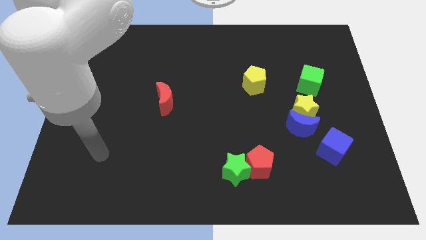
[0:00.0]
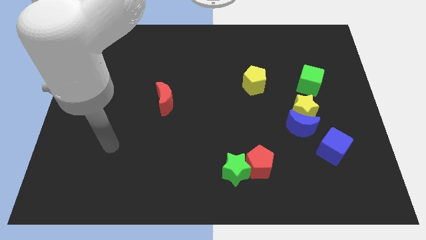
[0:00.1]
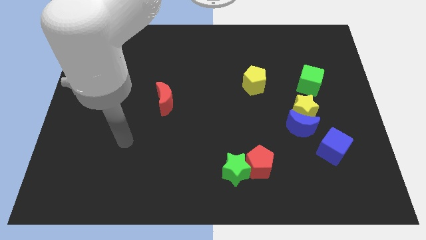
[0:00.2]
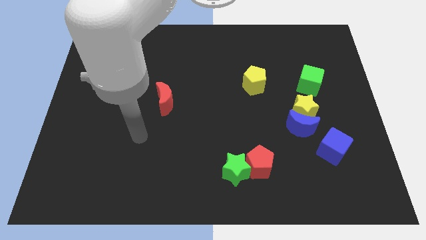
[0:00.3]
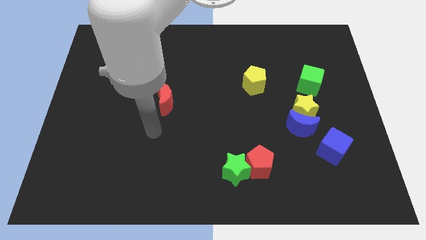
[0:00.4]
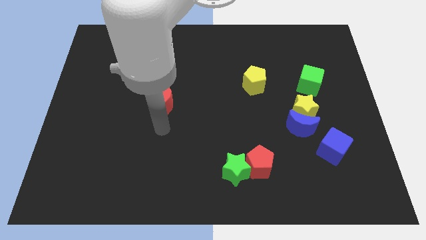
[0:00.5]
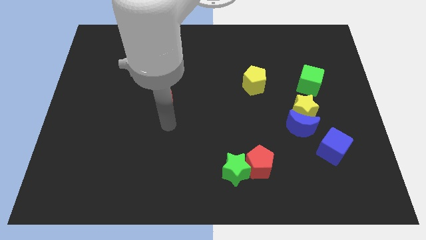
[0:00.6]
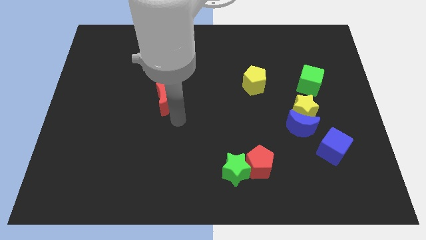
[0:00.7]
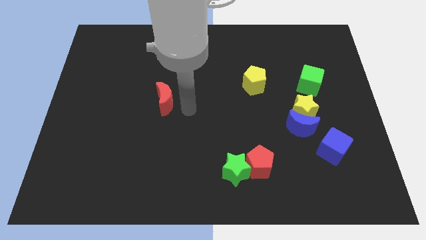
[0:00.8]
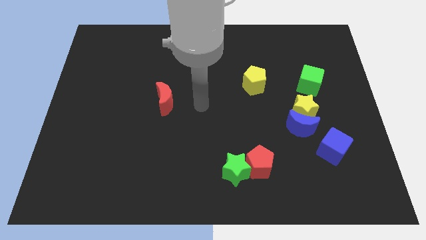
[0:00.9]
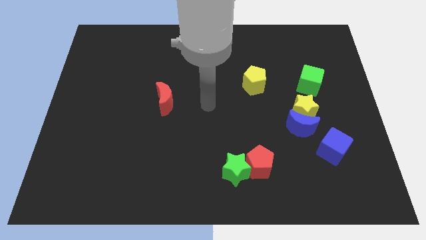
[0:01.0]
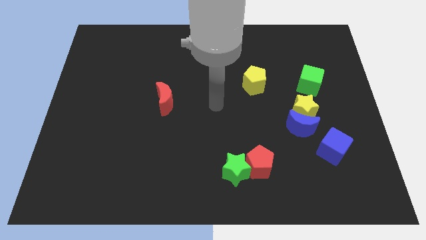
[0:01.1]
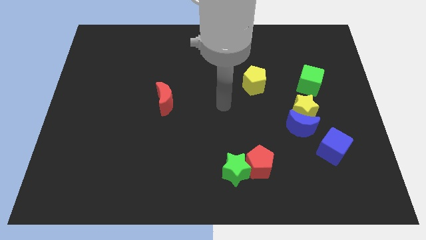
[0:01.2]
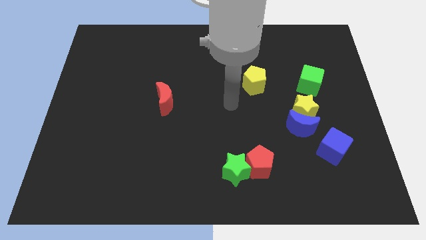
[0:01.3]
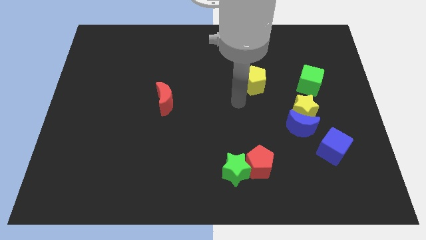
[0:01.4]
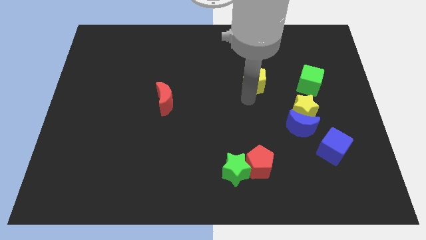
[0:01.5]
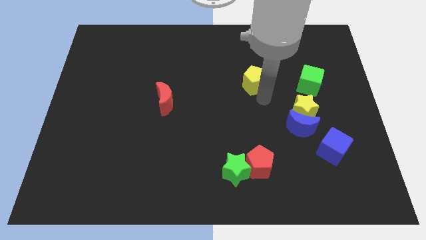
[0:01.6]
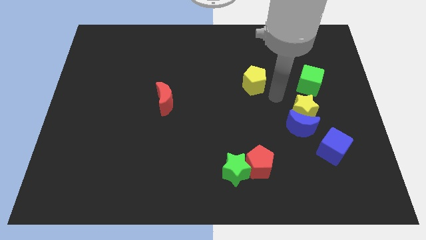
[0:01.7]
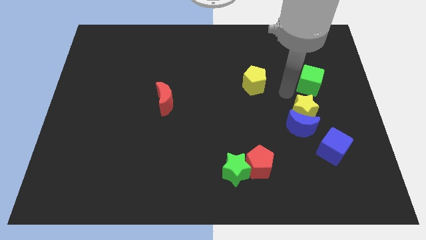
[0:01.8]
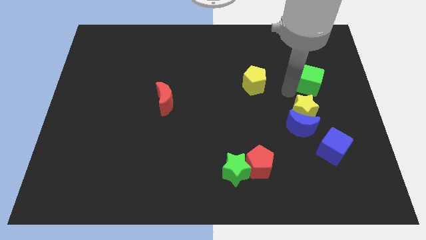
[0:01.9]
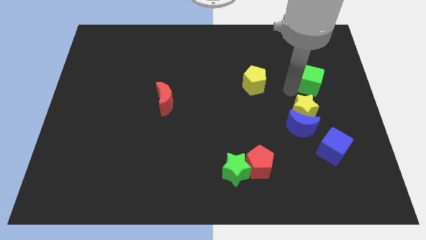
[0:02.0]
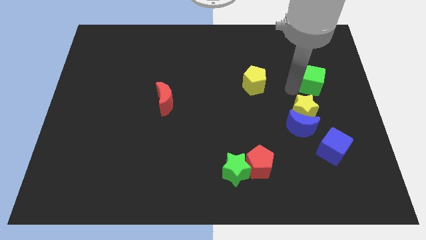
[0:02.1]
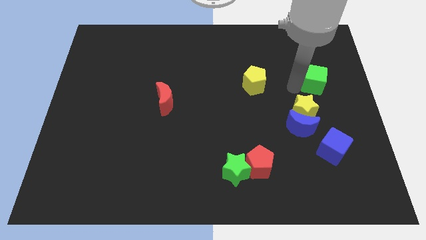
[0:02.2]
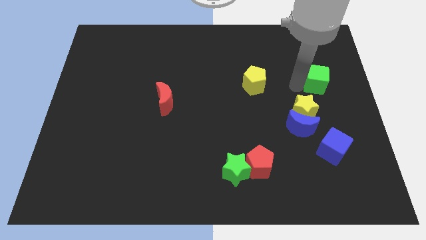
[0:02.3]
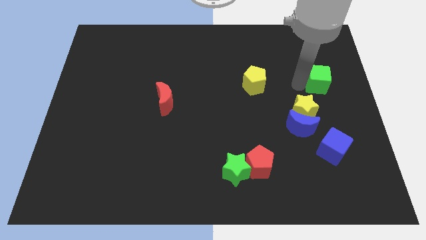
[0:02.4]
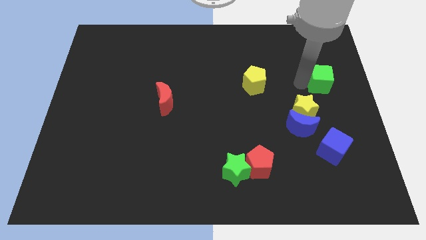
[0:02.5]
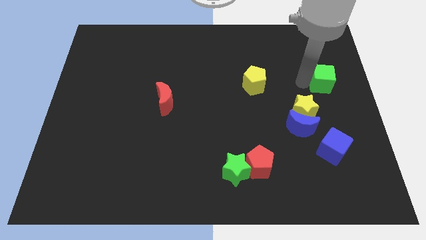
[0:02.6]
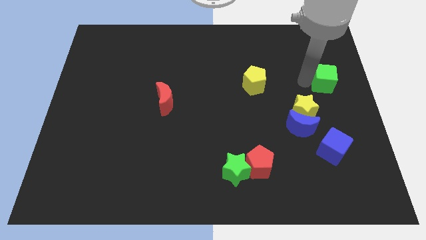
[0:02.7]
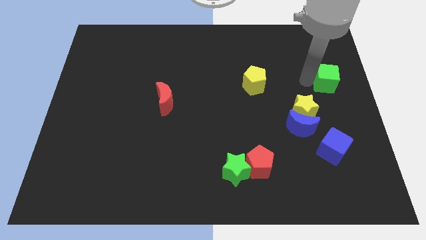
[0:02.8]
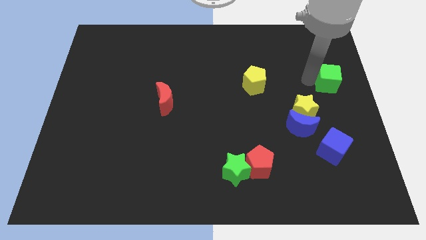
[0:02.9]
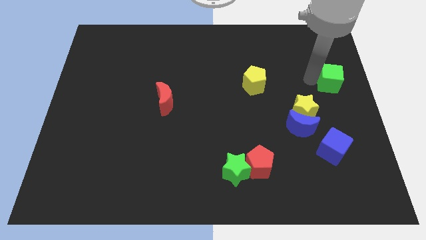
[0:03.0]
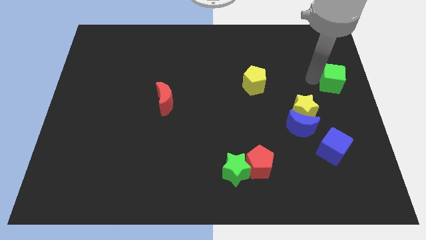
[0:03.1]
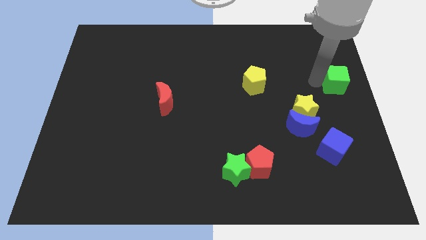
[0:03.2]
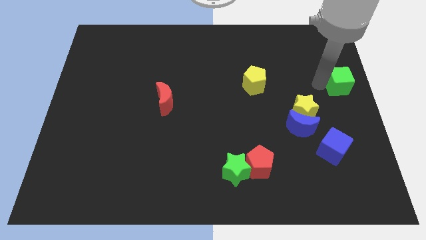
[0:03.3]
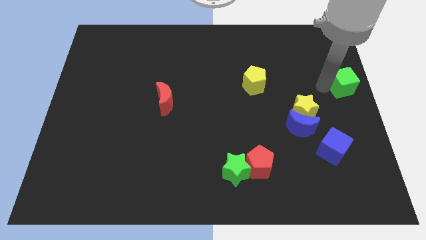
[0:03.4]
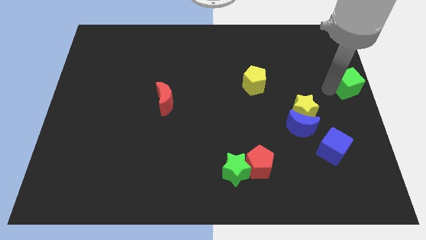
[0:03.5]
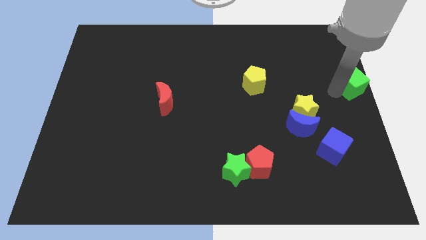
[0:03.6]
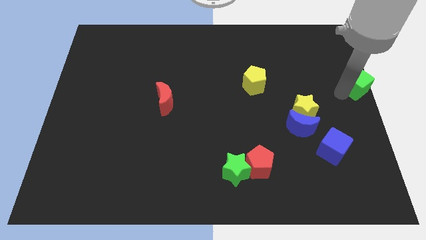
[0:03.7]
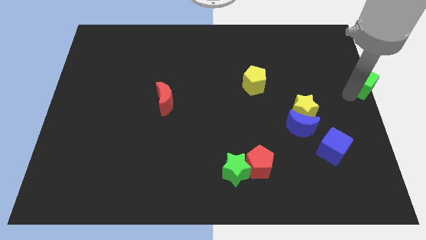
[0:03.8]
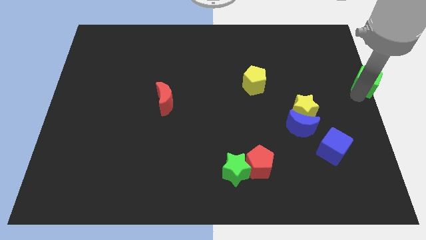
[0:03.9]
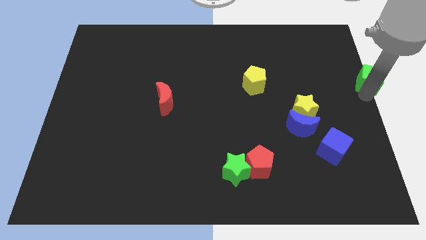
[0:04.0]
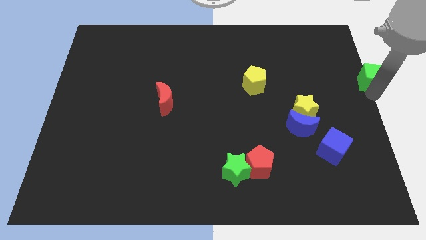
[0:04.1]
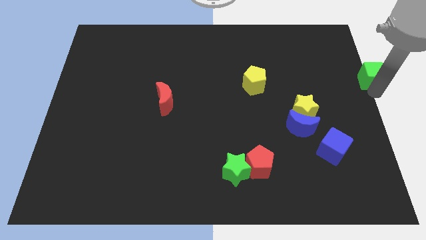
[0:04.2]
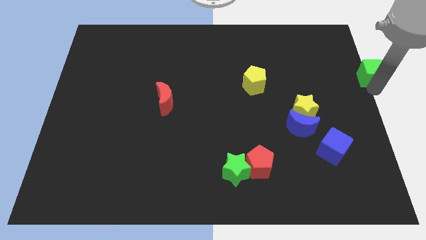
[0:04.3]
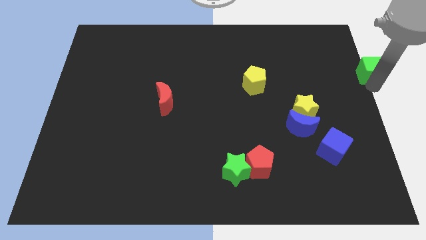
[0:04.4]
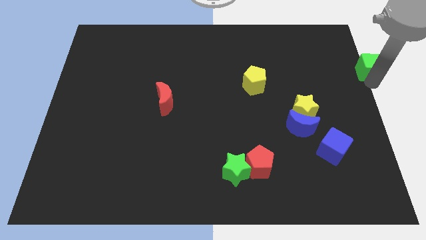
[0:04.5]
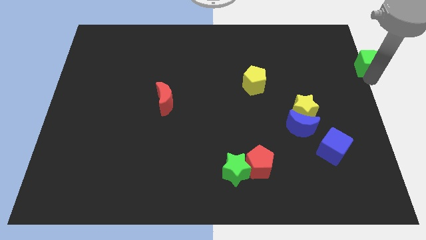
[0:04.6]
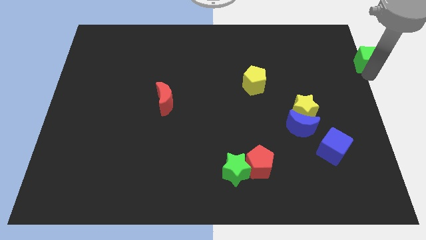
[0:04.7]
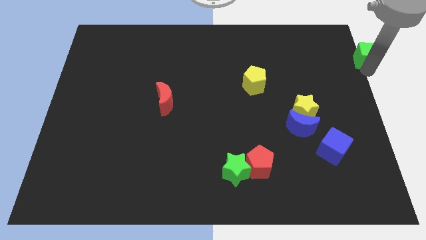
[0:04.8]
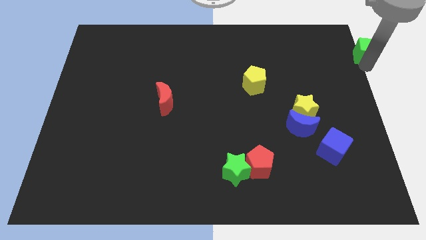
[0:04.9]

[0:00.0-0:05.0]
move the green cube to the top right of the board

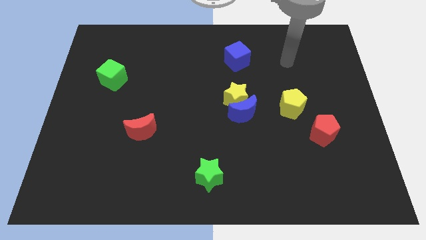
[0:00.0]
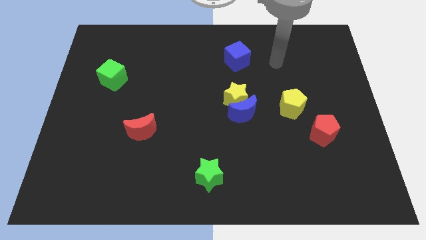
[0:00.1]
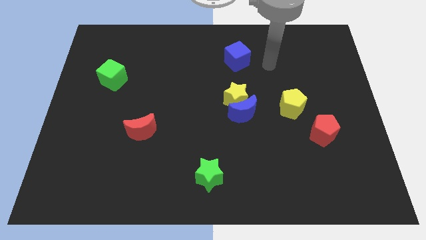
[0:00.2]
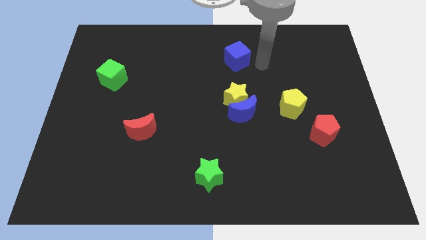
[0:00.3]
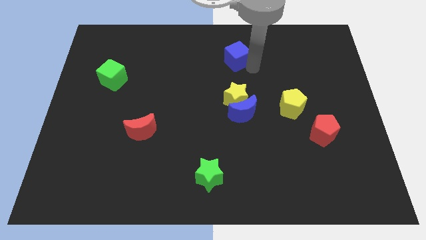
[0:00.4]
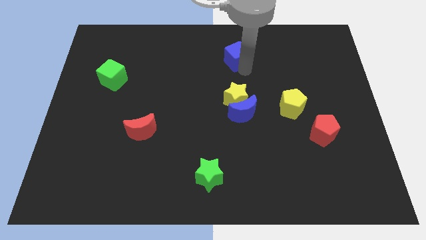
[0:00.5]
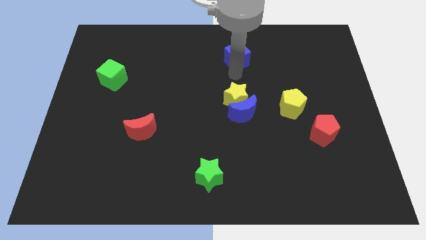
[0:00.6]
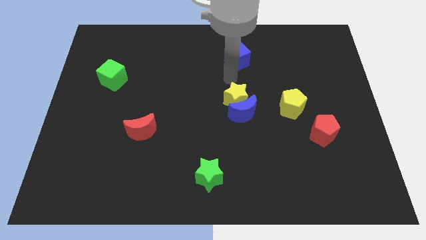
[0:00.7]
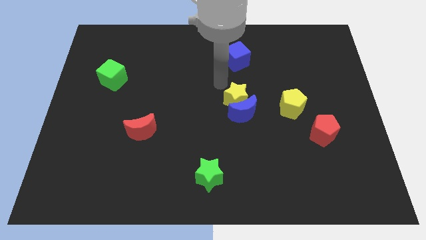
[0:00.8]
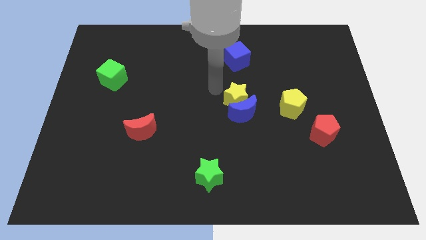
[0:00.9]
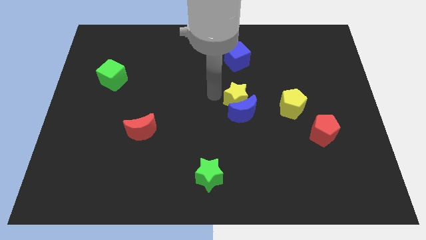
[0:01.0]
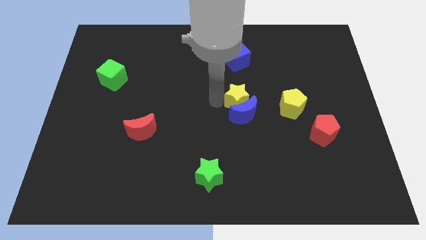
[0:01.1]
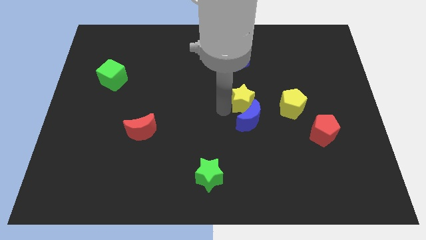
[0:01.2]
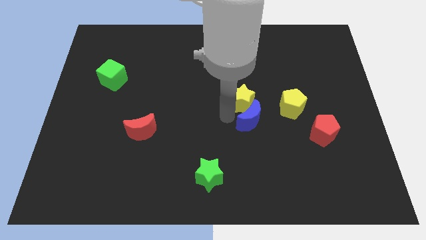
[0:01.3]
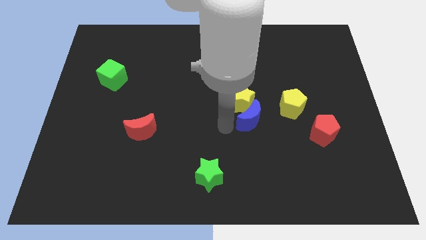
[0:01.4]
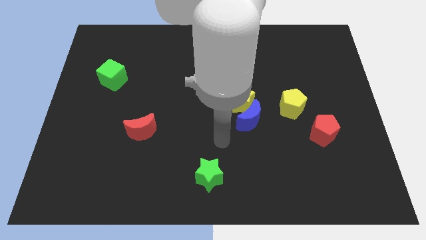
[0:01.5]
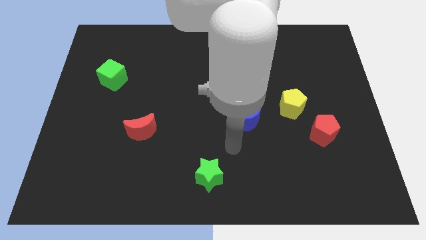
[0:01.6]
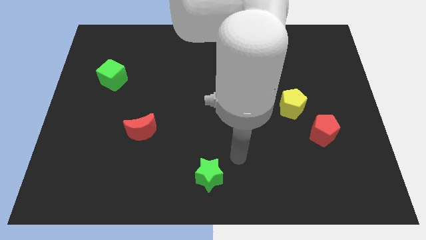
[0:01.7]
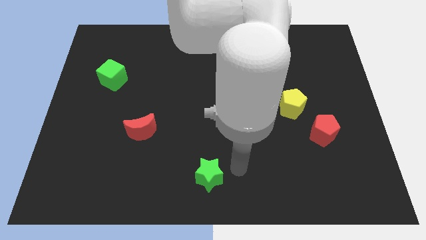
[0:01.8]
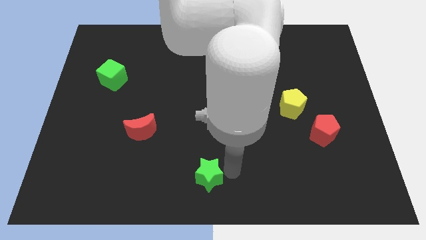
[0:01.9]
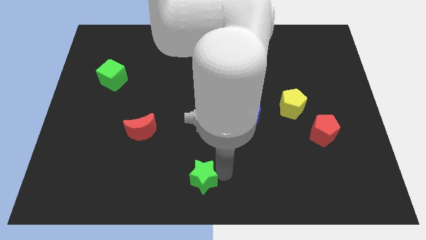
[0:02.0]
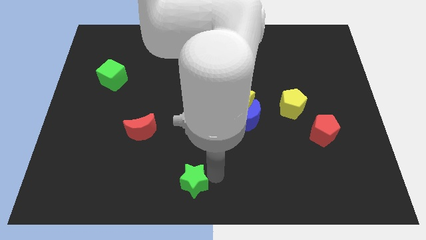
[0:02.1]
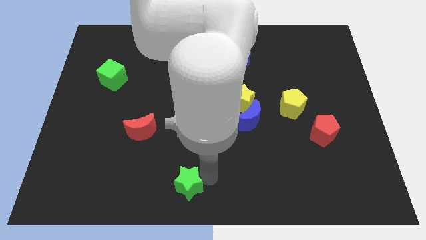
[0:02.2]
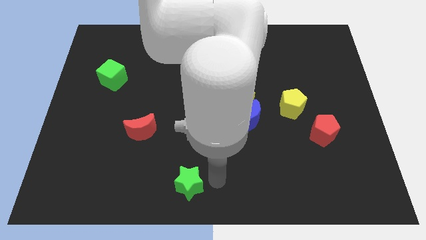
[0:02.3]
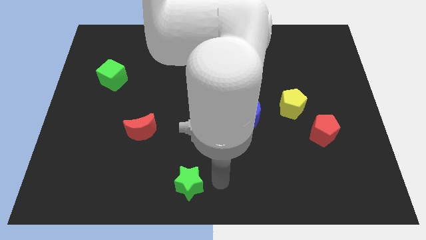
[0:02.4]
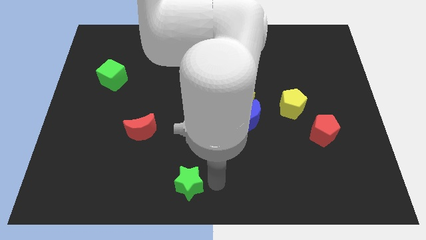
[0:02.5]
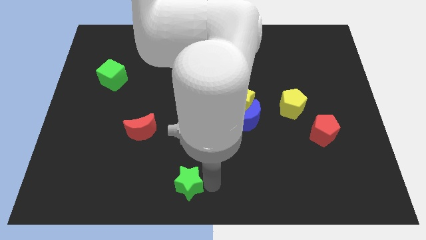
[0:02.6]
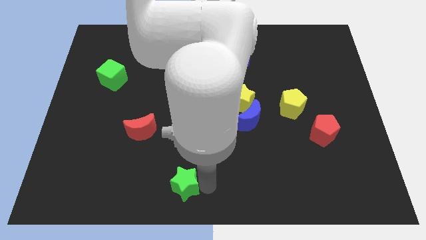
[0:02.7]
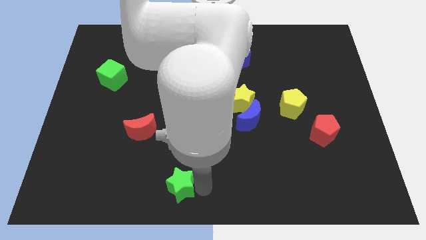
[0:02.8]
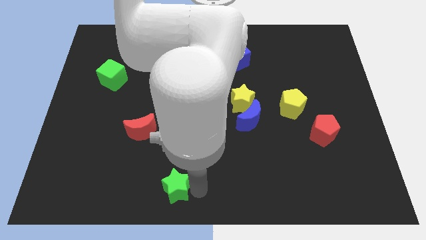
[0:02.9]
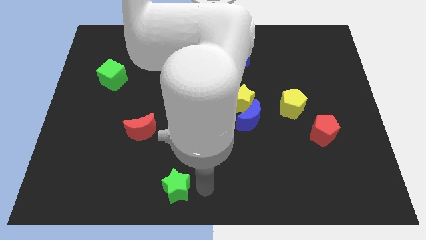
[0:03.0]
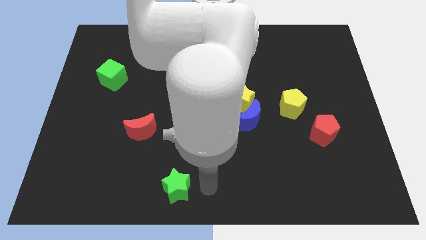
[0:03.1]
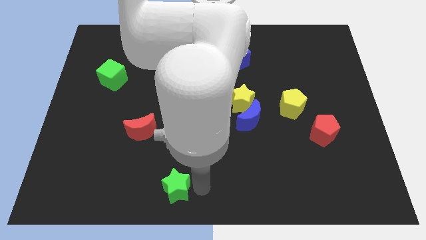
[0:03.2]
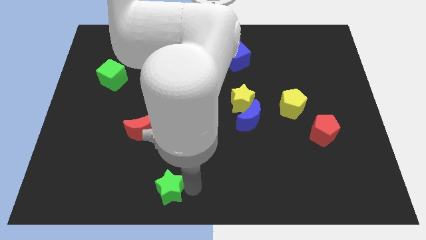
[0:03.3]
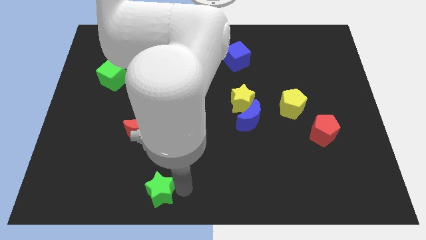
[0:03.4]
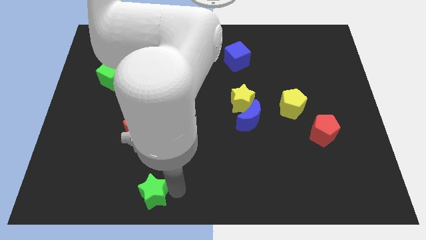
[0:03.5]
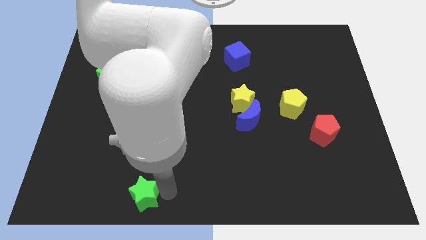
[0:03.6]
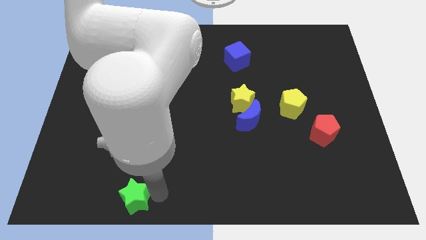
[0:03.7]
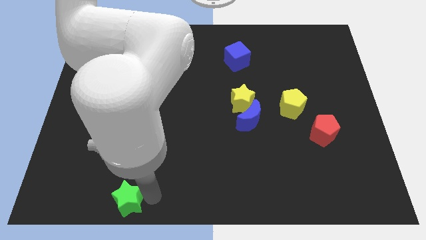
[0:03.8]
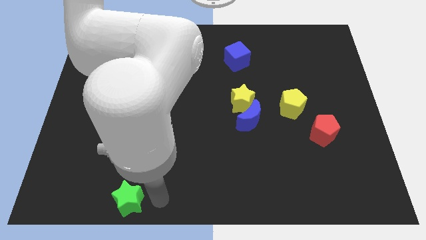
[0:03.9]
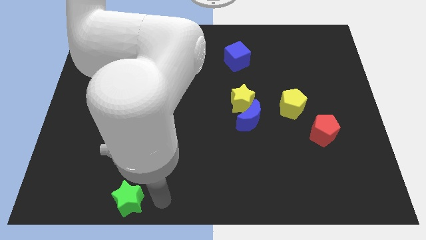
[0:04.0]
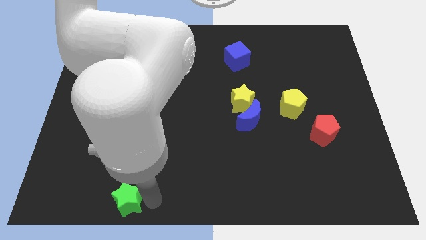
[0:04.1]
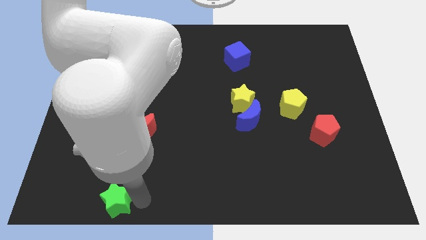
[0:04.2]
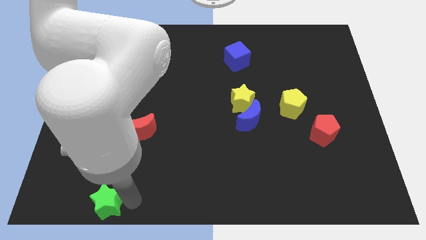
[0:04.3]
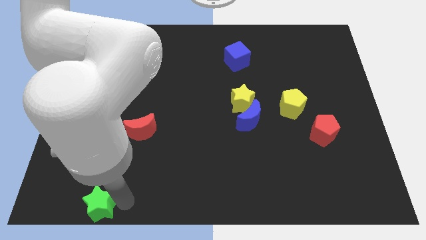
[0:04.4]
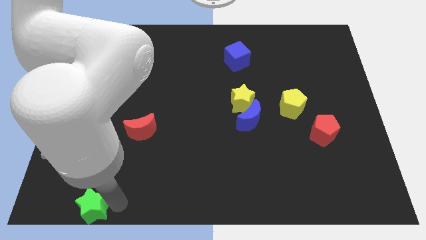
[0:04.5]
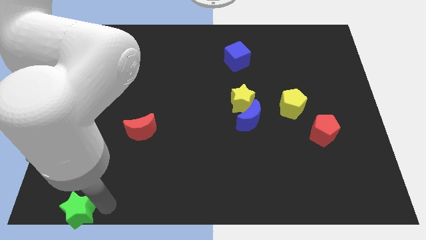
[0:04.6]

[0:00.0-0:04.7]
slide the green star to the lower left corner
